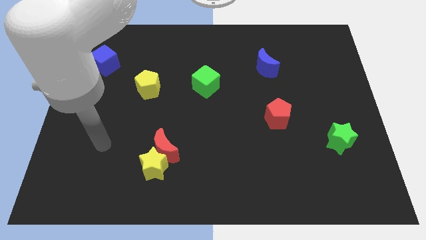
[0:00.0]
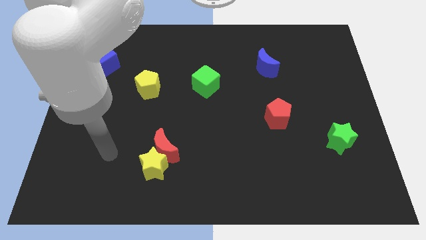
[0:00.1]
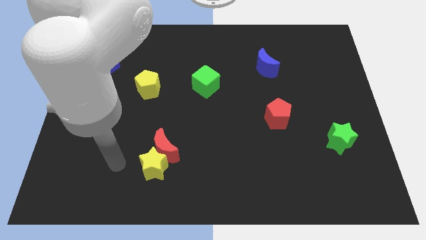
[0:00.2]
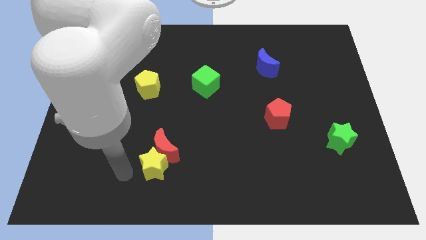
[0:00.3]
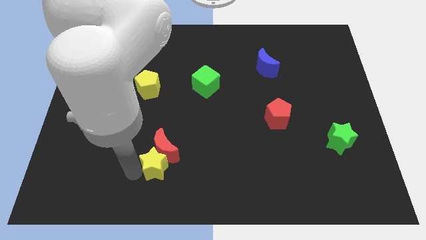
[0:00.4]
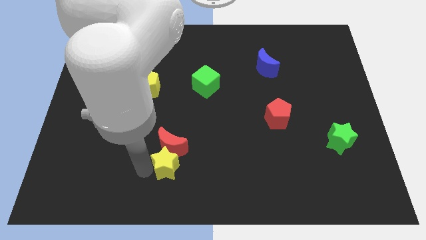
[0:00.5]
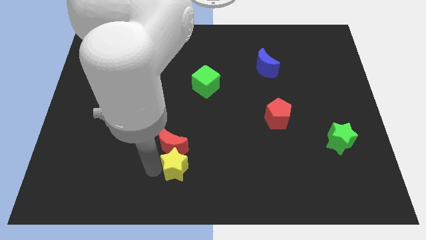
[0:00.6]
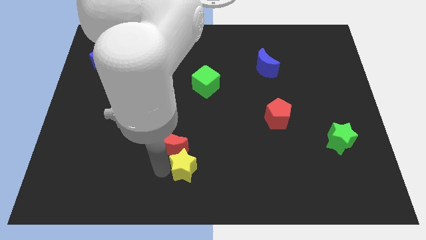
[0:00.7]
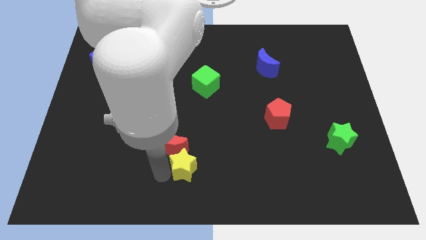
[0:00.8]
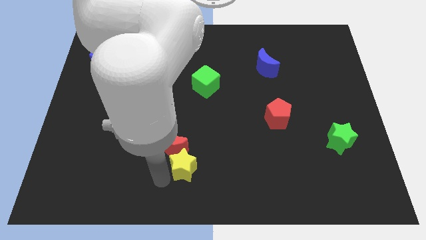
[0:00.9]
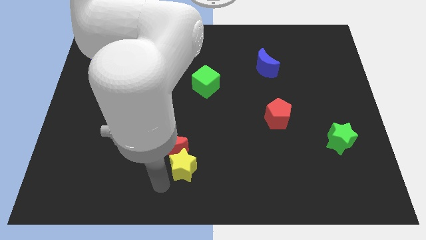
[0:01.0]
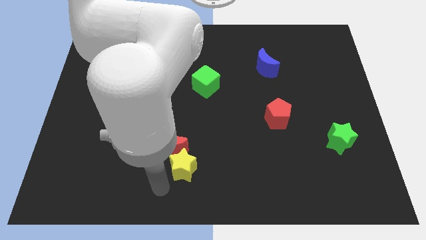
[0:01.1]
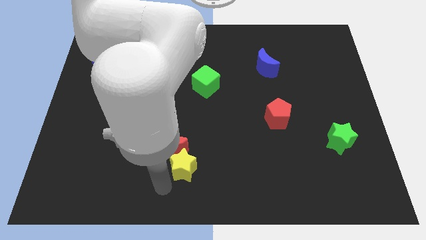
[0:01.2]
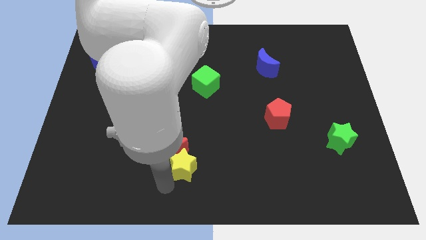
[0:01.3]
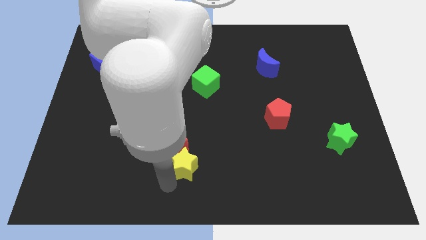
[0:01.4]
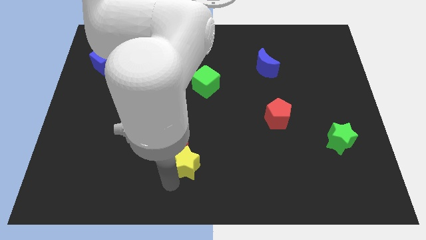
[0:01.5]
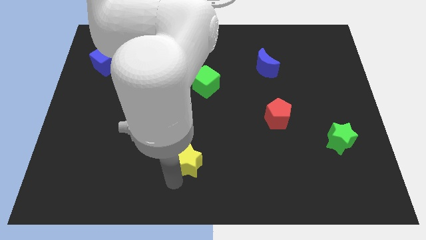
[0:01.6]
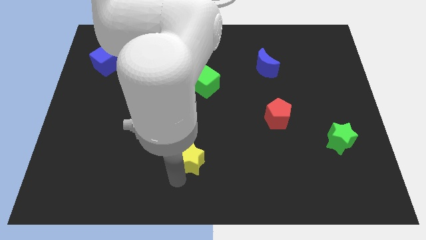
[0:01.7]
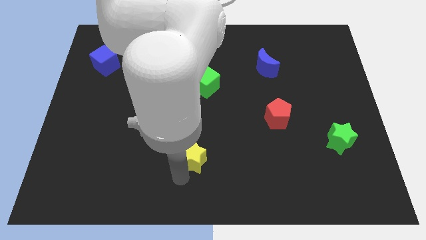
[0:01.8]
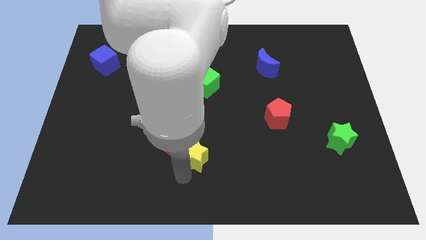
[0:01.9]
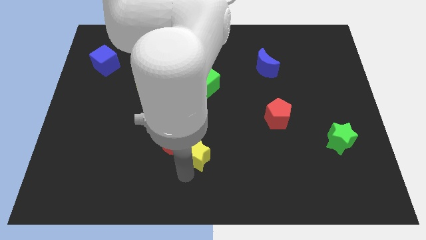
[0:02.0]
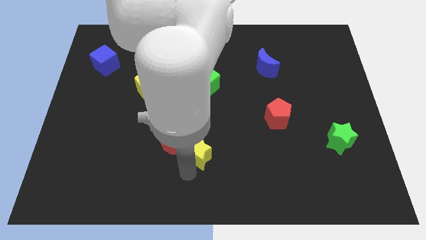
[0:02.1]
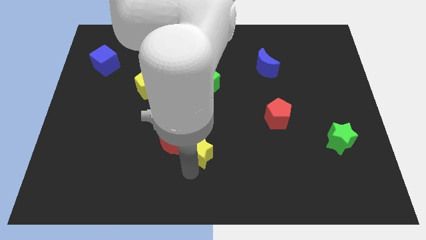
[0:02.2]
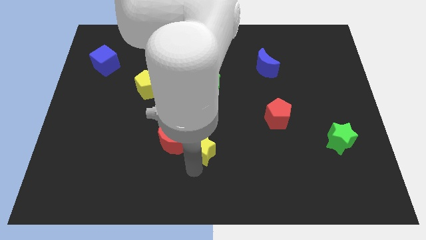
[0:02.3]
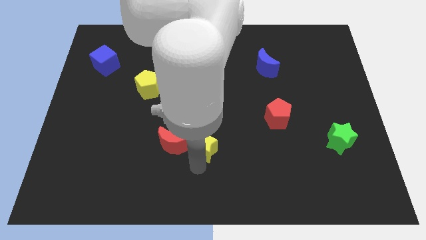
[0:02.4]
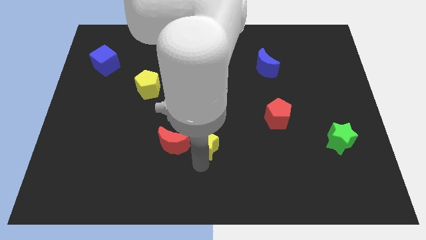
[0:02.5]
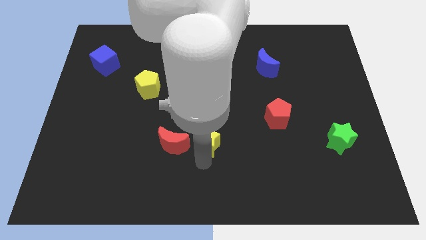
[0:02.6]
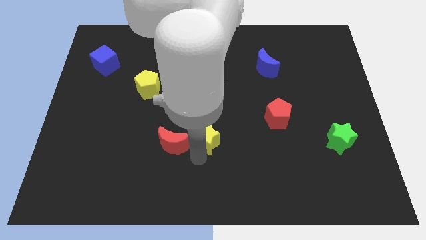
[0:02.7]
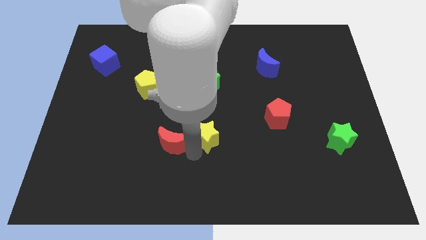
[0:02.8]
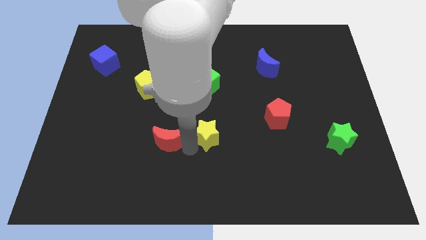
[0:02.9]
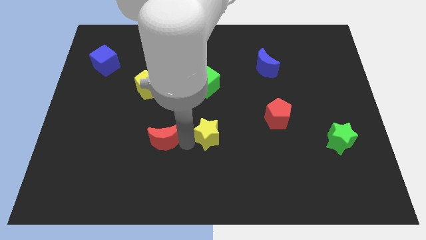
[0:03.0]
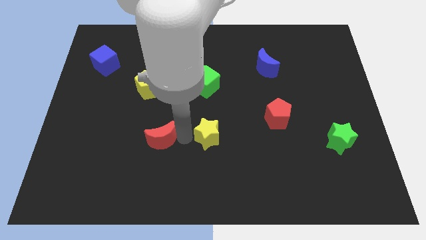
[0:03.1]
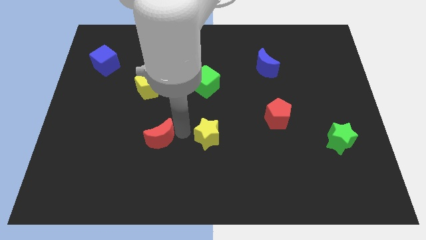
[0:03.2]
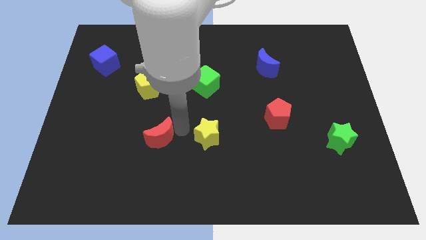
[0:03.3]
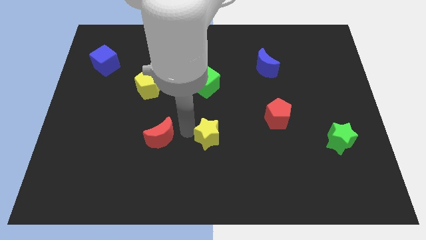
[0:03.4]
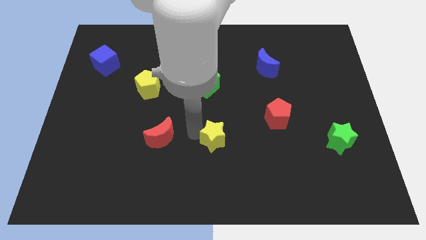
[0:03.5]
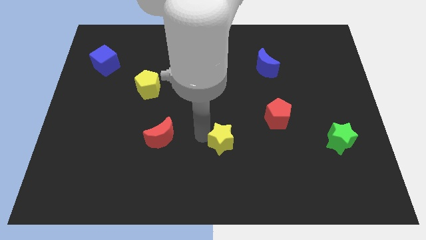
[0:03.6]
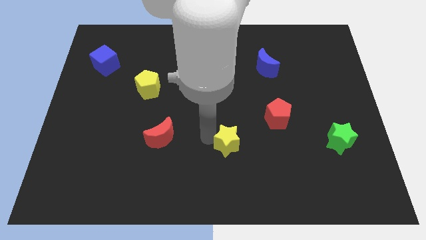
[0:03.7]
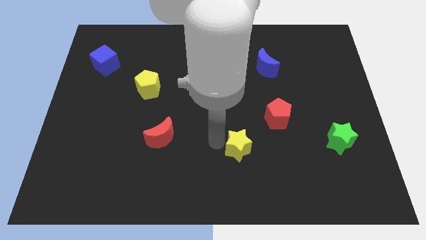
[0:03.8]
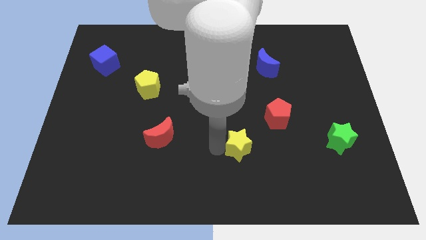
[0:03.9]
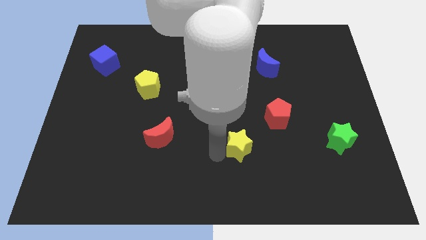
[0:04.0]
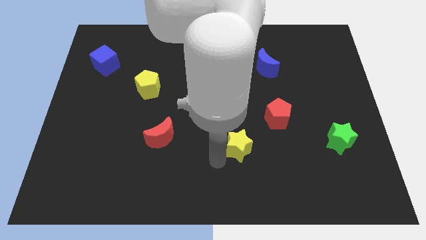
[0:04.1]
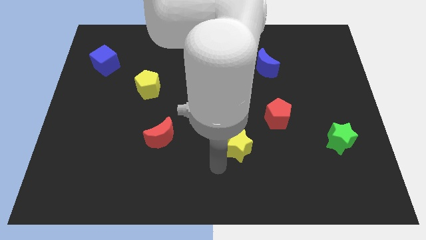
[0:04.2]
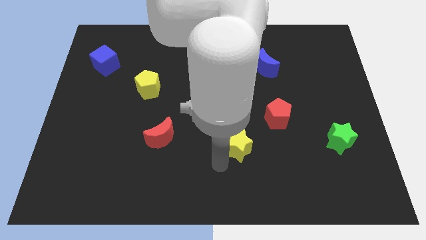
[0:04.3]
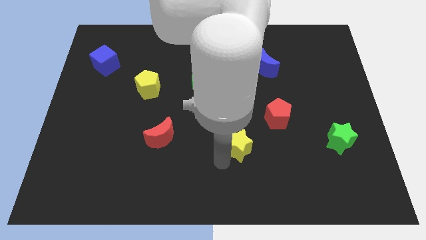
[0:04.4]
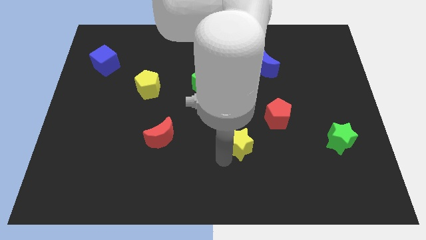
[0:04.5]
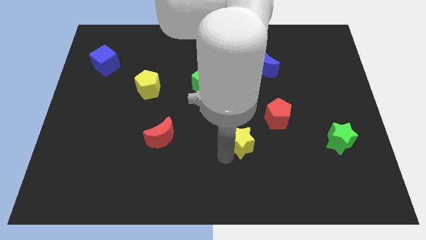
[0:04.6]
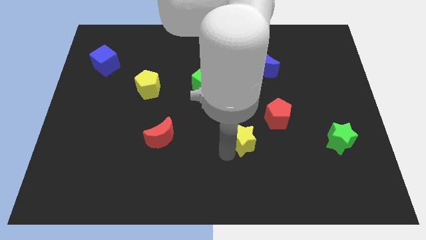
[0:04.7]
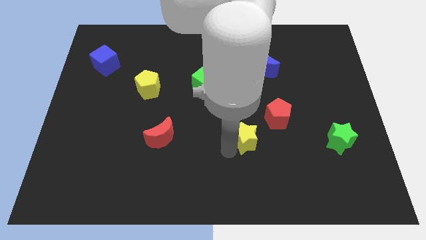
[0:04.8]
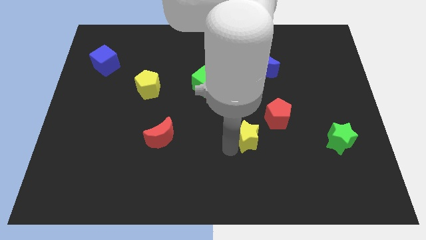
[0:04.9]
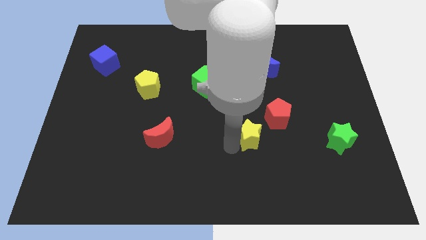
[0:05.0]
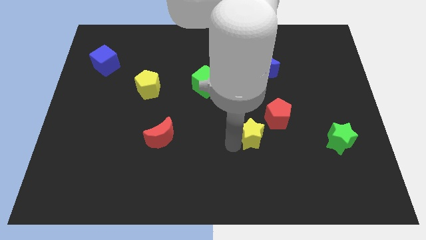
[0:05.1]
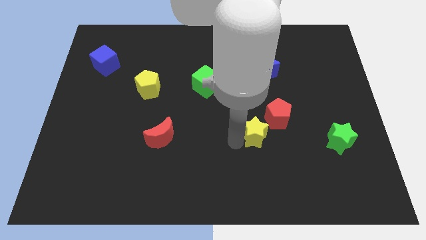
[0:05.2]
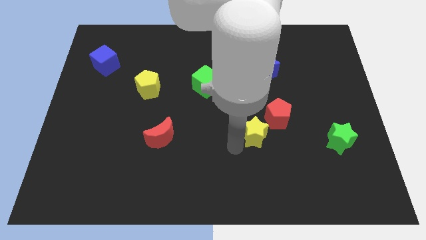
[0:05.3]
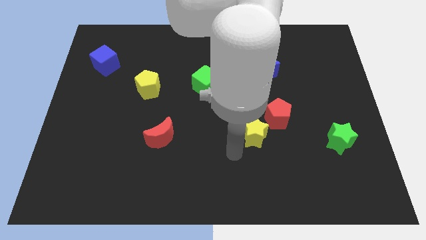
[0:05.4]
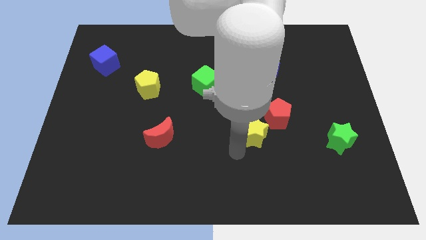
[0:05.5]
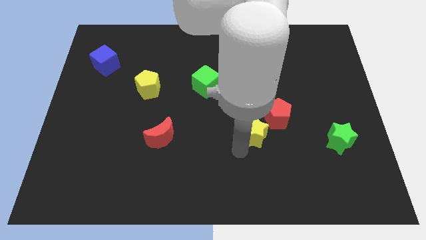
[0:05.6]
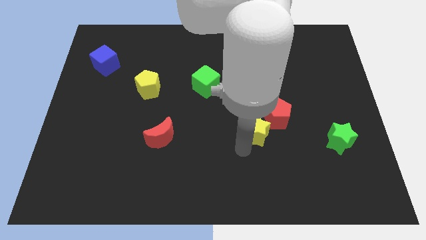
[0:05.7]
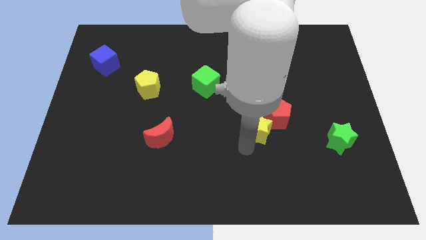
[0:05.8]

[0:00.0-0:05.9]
push the yellow star to the red pentagon

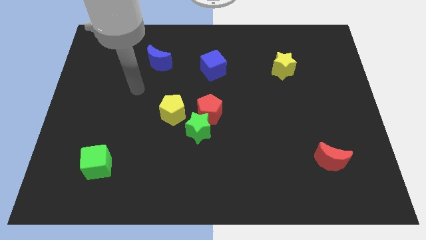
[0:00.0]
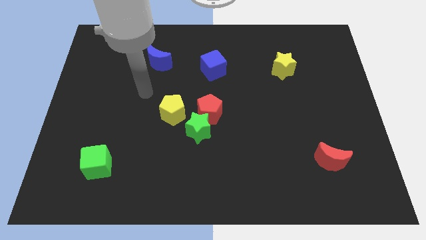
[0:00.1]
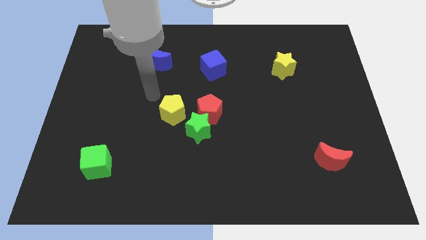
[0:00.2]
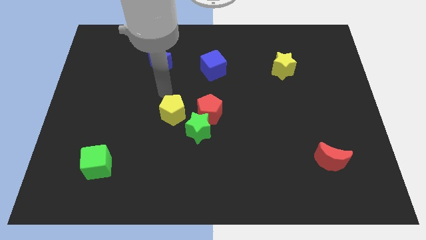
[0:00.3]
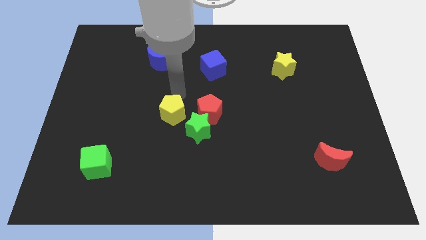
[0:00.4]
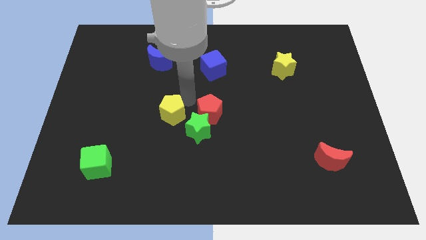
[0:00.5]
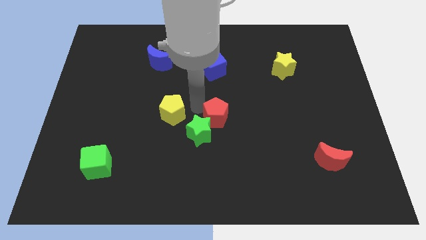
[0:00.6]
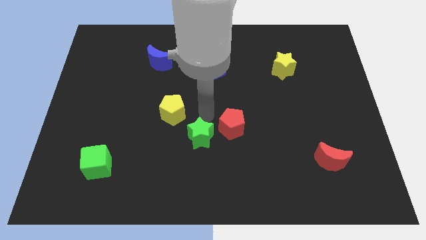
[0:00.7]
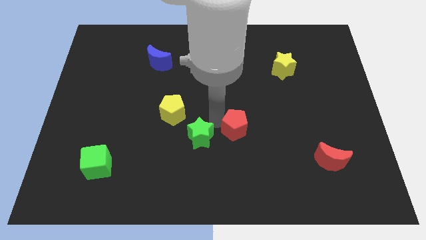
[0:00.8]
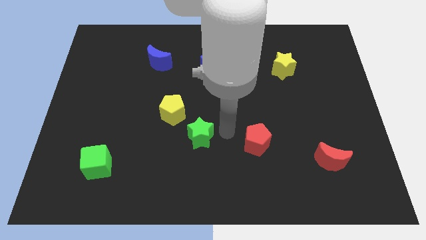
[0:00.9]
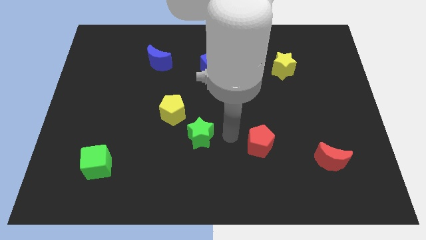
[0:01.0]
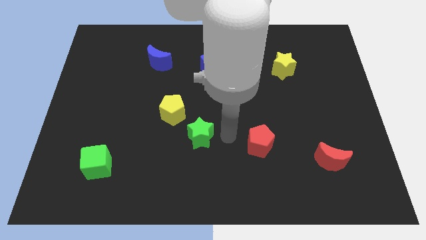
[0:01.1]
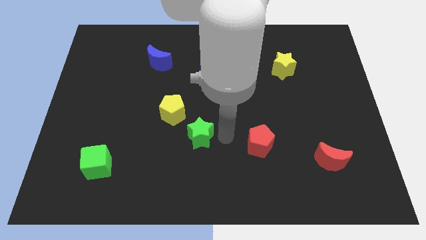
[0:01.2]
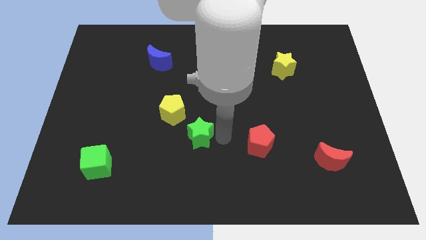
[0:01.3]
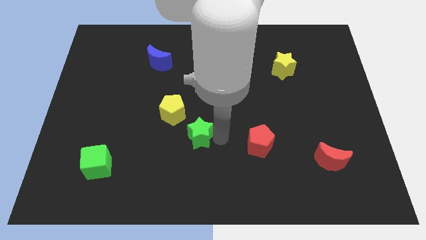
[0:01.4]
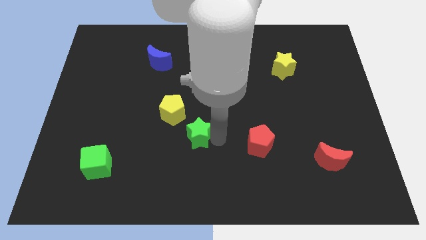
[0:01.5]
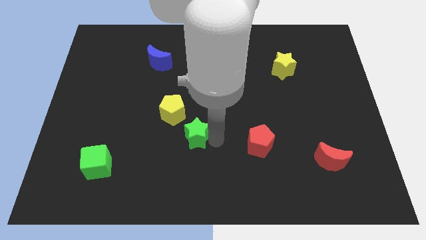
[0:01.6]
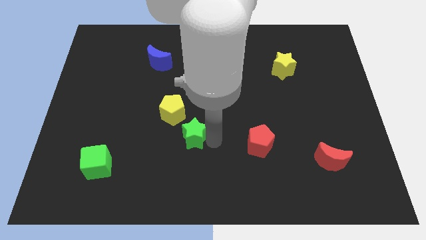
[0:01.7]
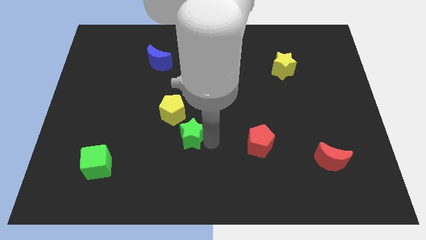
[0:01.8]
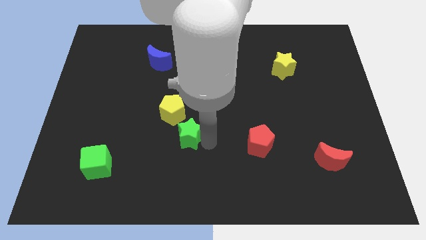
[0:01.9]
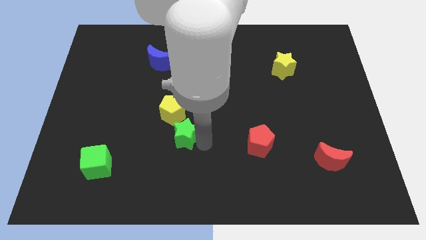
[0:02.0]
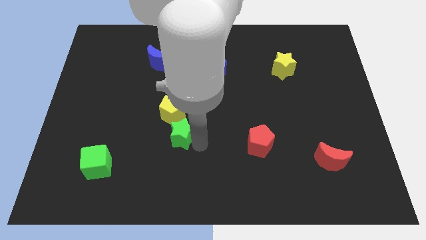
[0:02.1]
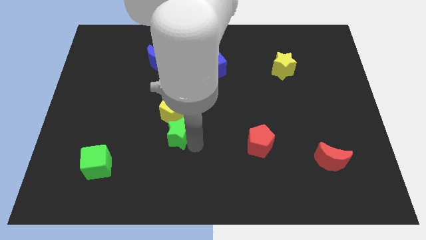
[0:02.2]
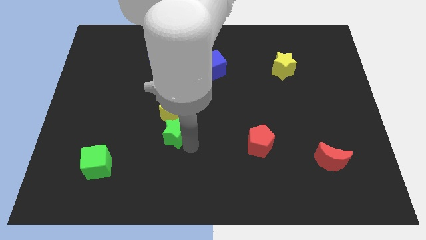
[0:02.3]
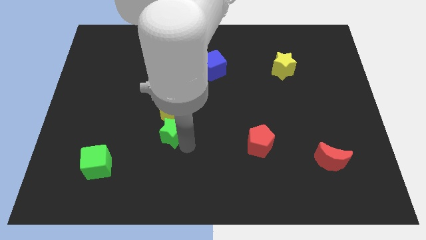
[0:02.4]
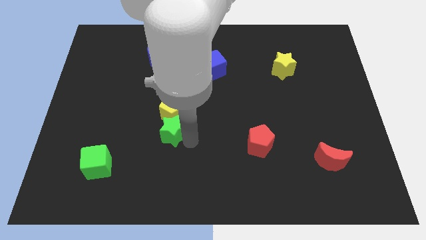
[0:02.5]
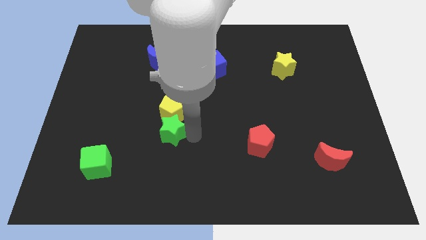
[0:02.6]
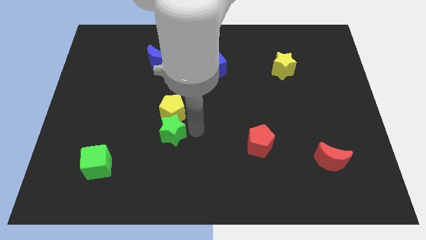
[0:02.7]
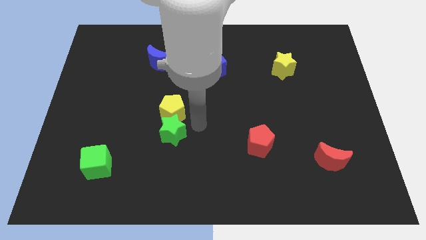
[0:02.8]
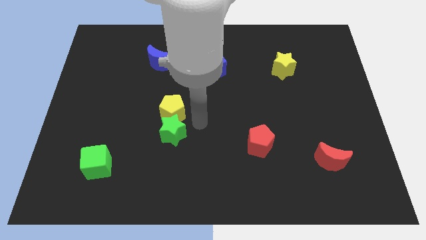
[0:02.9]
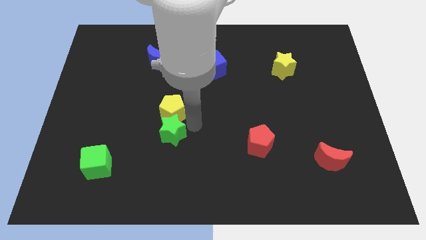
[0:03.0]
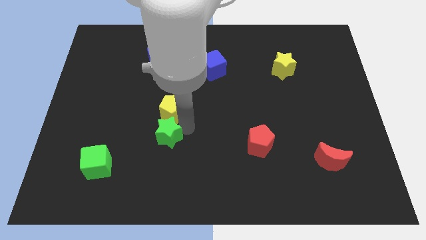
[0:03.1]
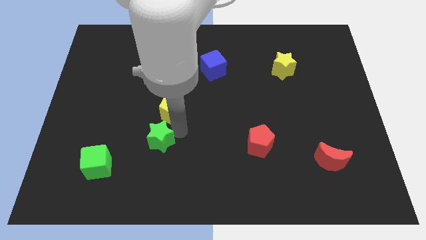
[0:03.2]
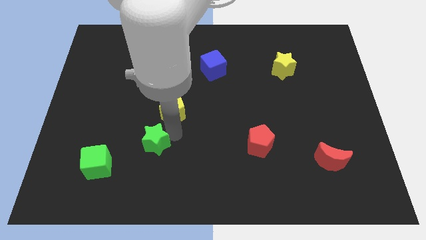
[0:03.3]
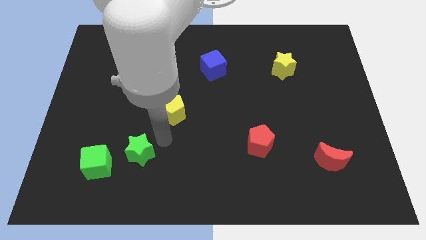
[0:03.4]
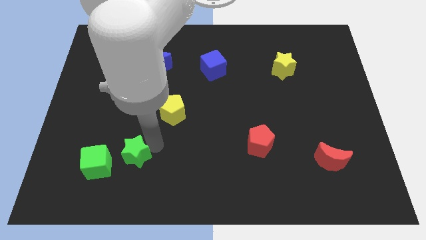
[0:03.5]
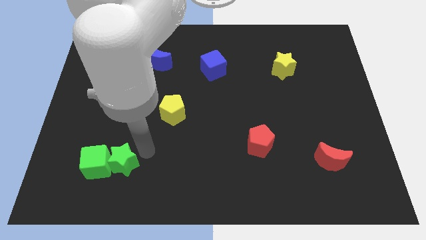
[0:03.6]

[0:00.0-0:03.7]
move the green star close to the green cube
